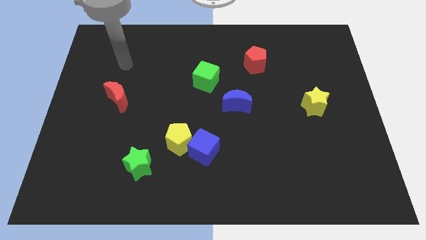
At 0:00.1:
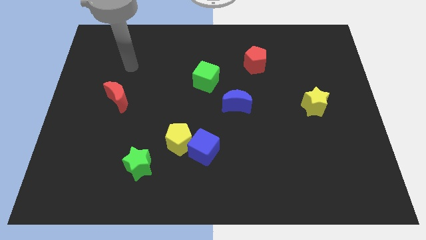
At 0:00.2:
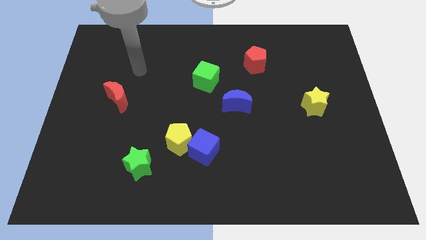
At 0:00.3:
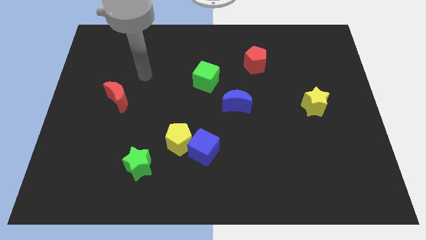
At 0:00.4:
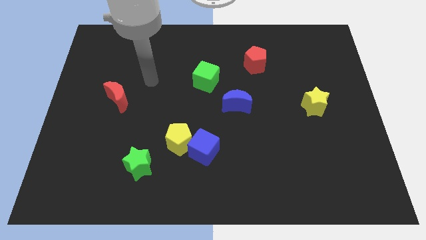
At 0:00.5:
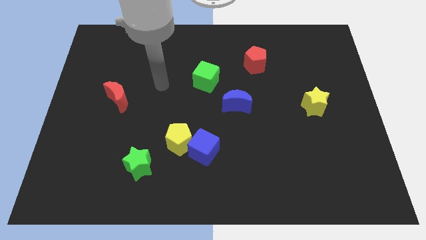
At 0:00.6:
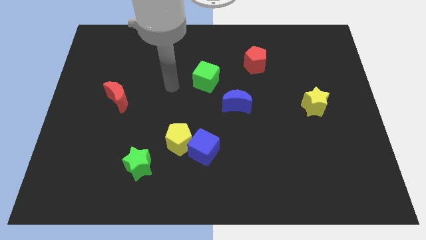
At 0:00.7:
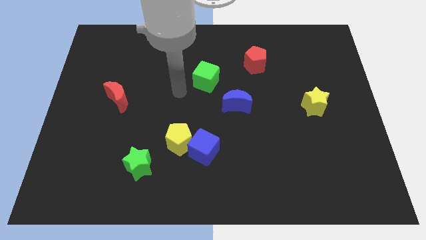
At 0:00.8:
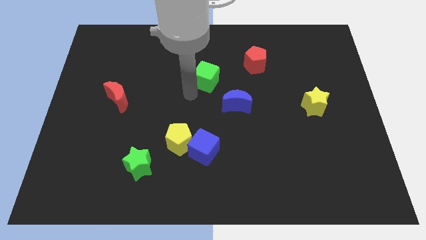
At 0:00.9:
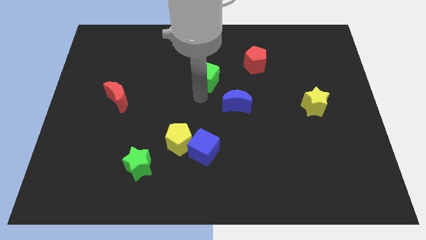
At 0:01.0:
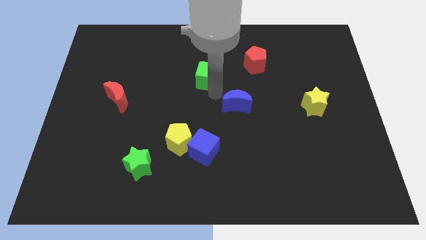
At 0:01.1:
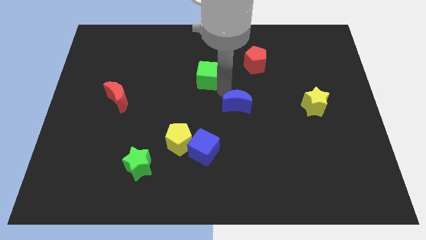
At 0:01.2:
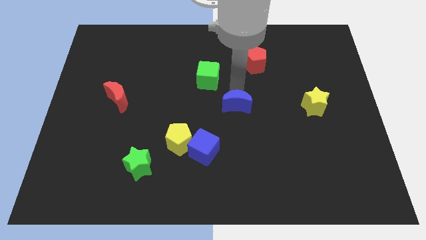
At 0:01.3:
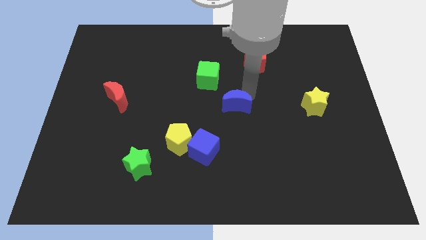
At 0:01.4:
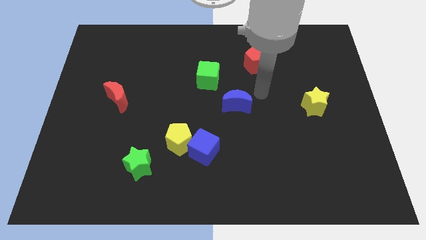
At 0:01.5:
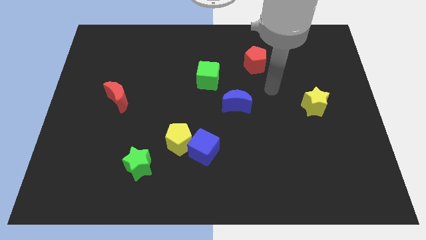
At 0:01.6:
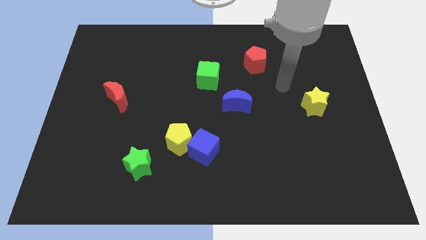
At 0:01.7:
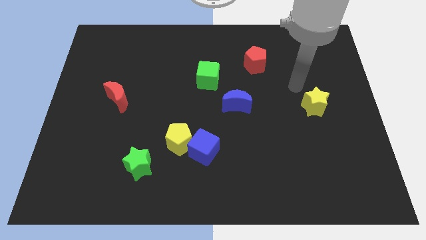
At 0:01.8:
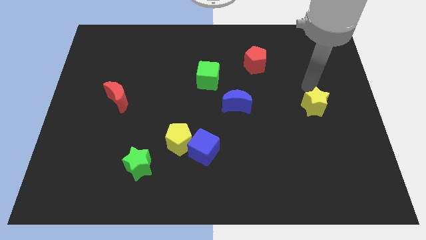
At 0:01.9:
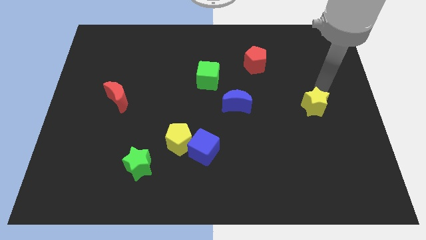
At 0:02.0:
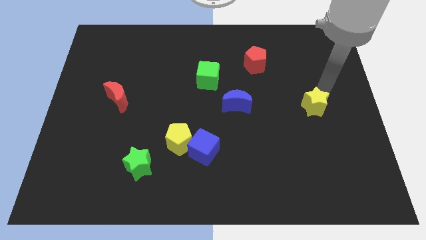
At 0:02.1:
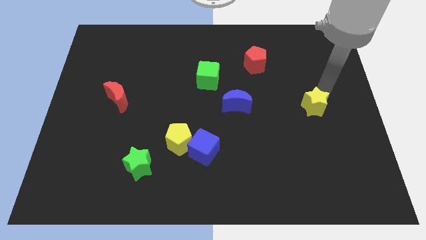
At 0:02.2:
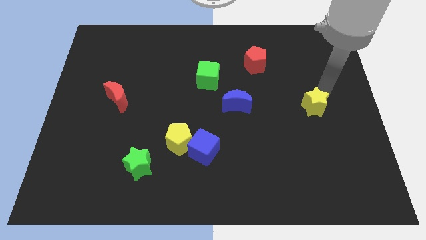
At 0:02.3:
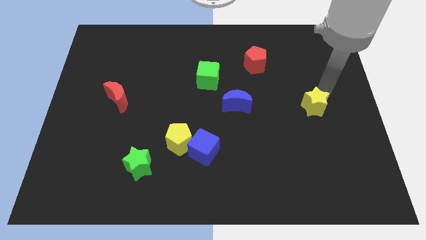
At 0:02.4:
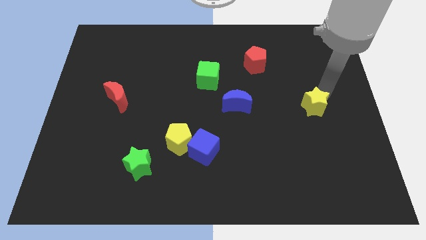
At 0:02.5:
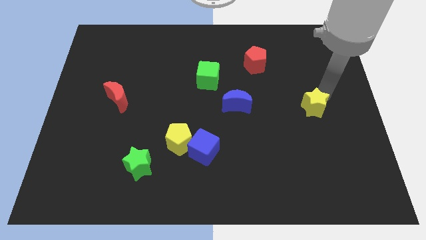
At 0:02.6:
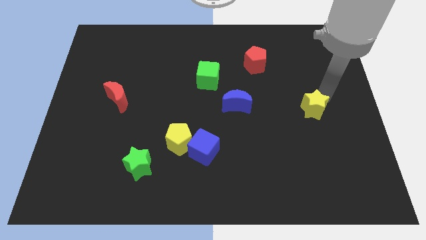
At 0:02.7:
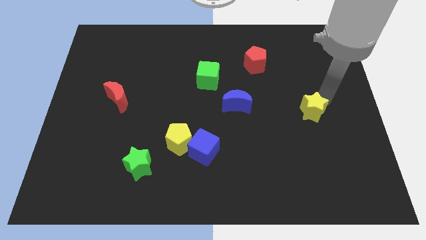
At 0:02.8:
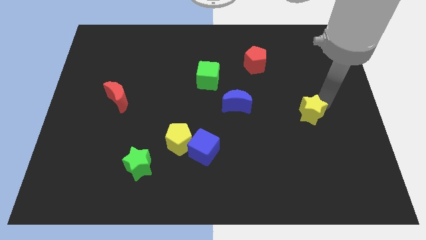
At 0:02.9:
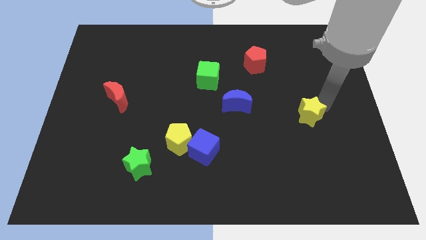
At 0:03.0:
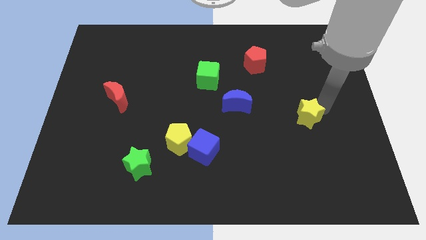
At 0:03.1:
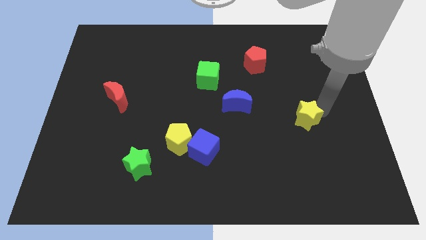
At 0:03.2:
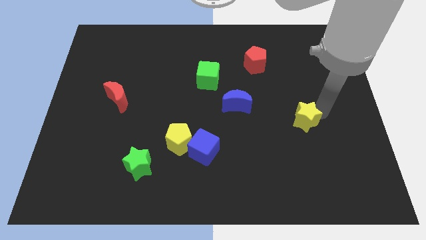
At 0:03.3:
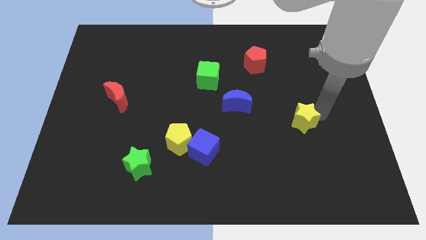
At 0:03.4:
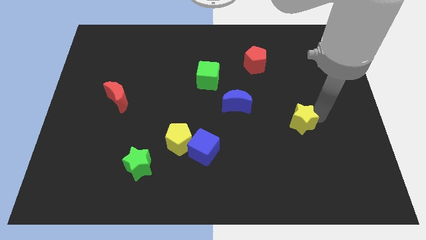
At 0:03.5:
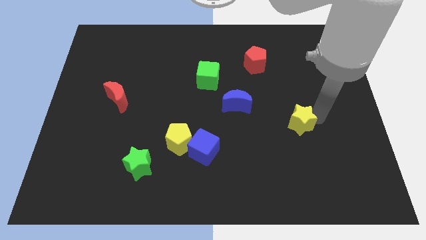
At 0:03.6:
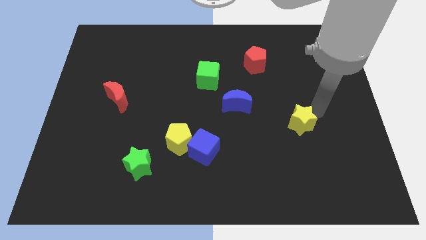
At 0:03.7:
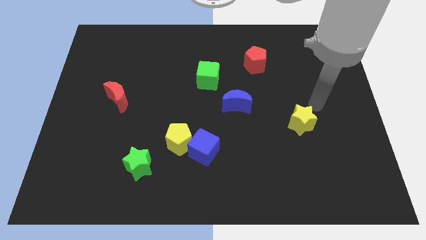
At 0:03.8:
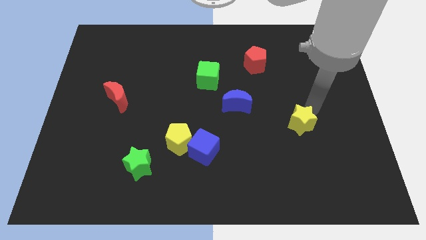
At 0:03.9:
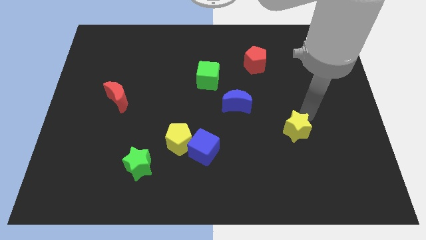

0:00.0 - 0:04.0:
push the yellow star somewhat downwards and then left

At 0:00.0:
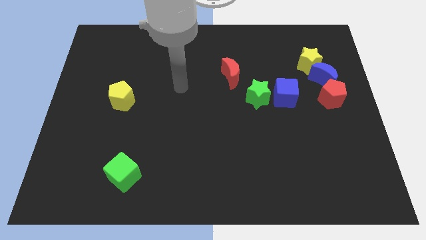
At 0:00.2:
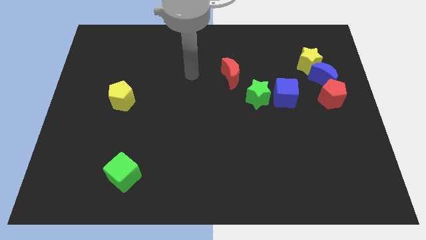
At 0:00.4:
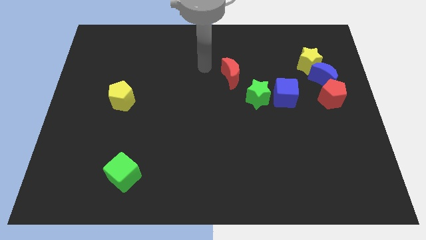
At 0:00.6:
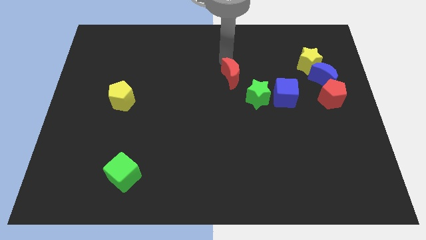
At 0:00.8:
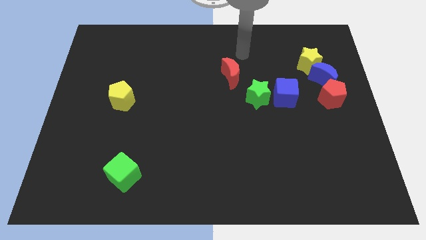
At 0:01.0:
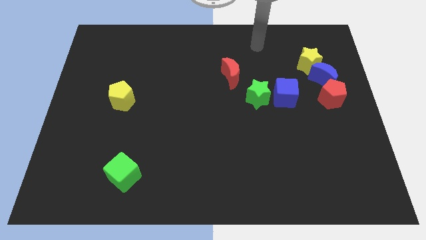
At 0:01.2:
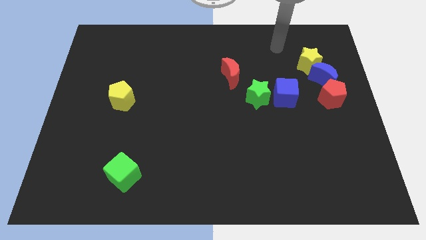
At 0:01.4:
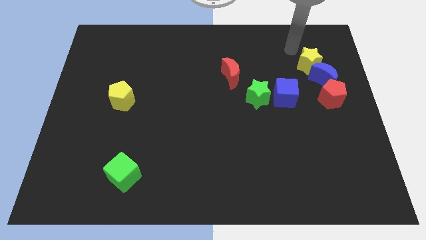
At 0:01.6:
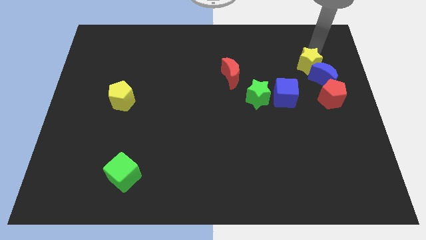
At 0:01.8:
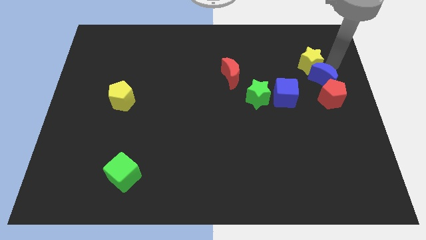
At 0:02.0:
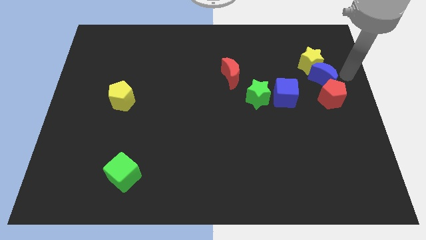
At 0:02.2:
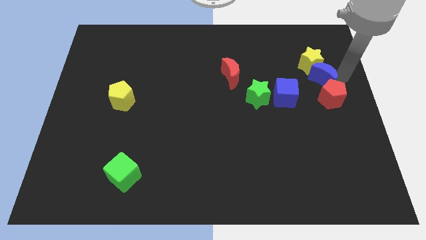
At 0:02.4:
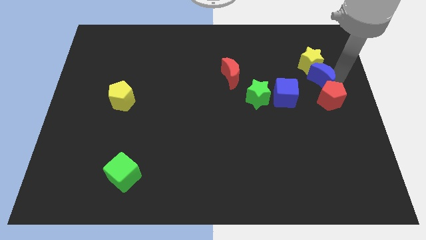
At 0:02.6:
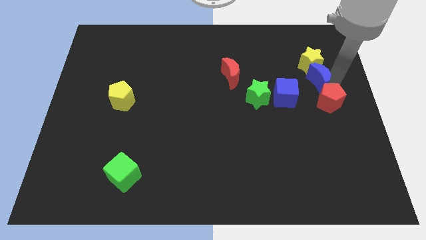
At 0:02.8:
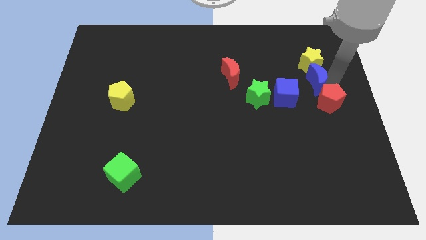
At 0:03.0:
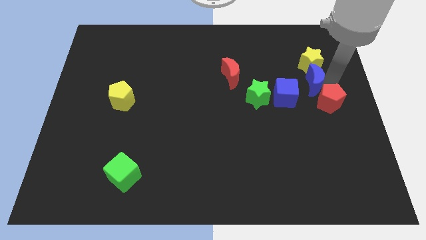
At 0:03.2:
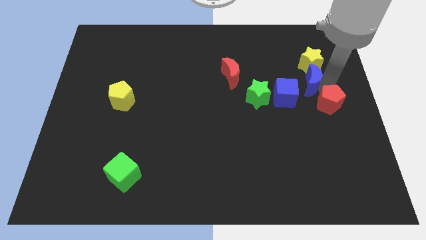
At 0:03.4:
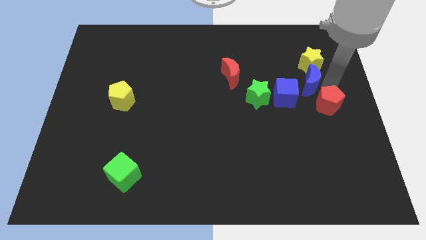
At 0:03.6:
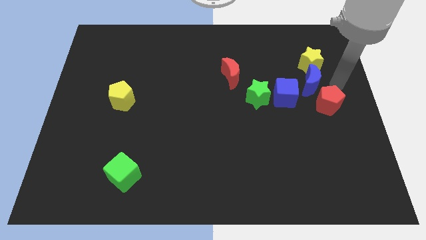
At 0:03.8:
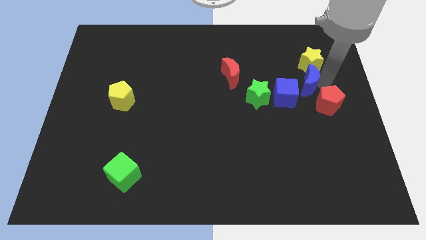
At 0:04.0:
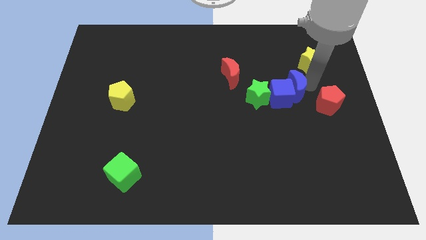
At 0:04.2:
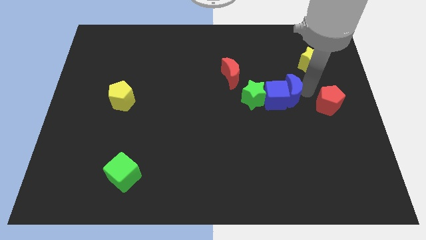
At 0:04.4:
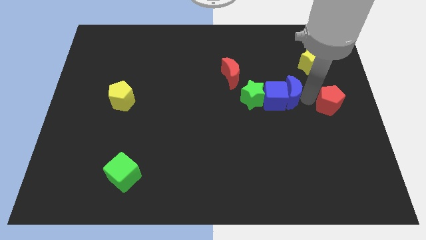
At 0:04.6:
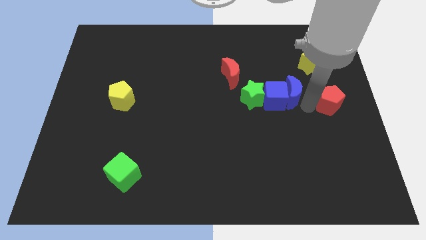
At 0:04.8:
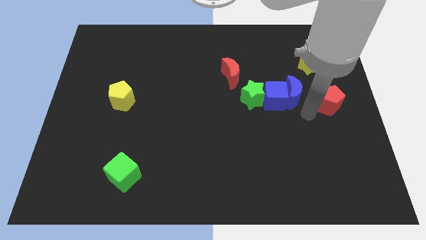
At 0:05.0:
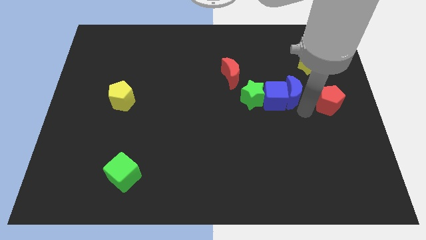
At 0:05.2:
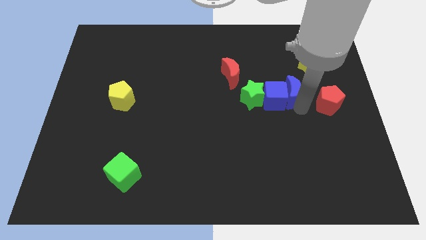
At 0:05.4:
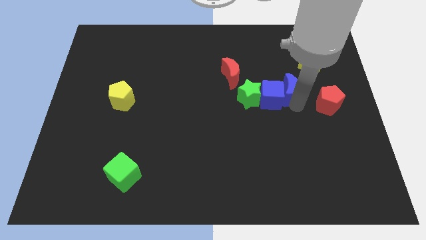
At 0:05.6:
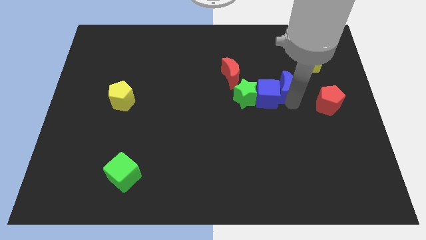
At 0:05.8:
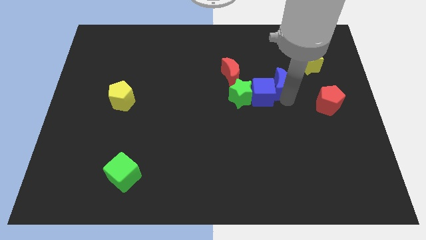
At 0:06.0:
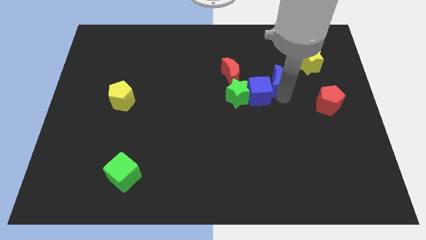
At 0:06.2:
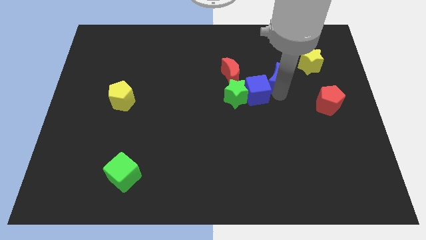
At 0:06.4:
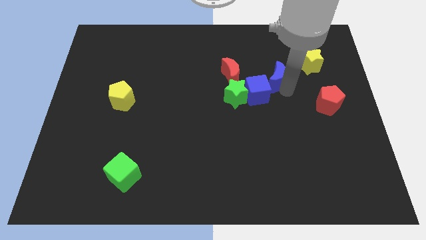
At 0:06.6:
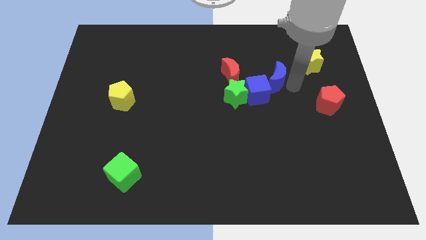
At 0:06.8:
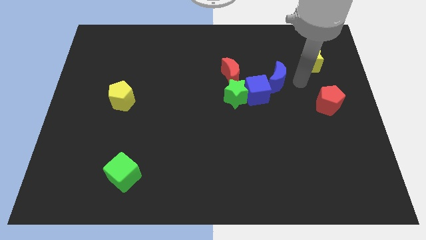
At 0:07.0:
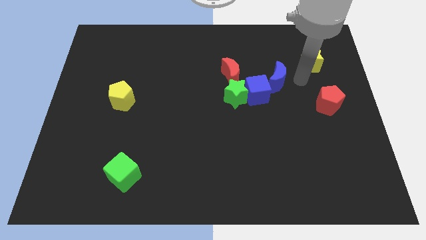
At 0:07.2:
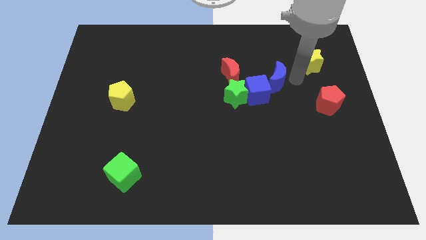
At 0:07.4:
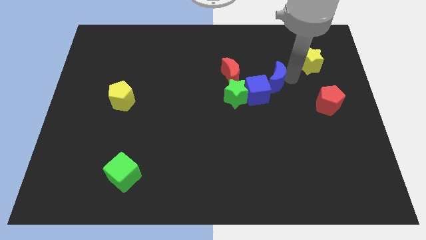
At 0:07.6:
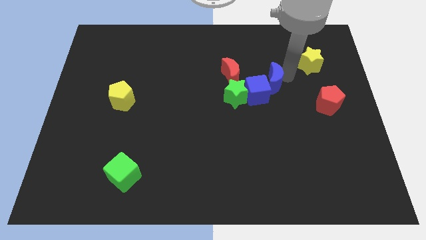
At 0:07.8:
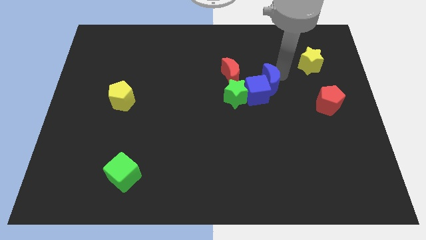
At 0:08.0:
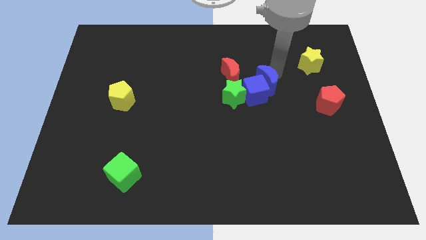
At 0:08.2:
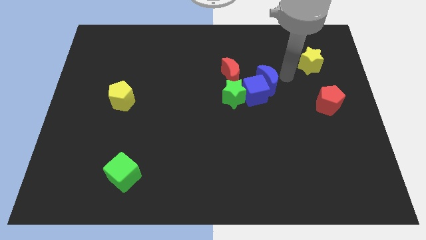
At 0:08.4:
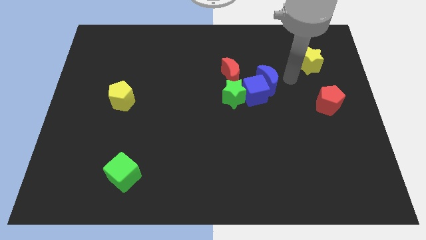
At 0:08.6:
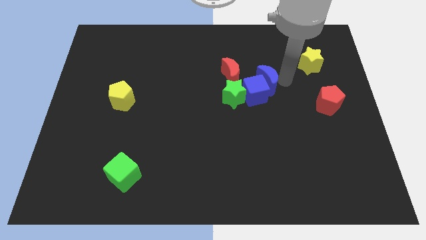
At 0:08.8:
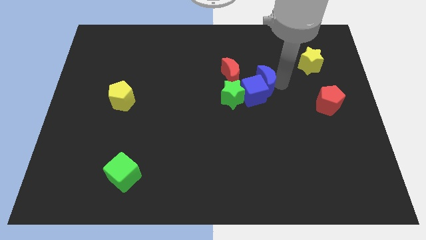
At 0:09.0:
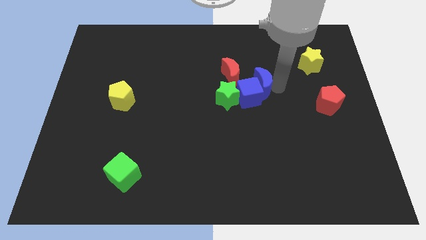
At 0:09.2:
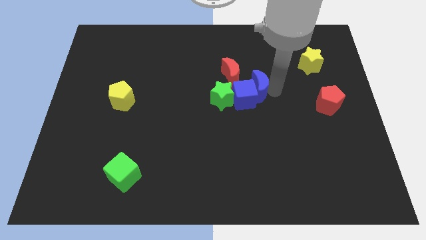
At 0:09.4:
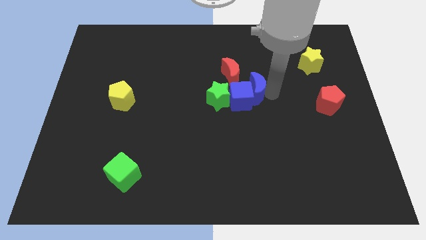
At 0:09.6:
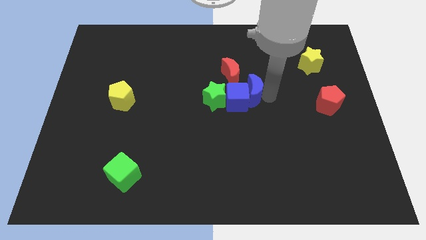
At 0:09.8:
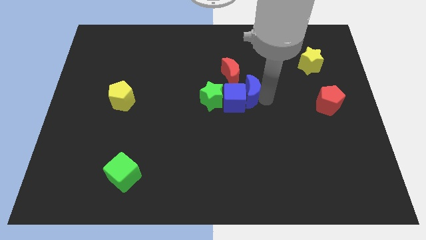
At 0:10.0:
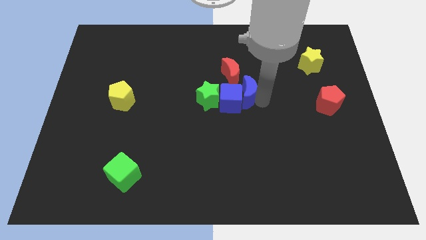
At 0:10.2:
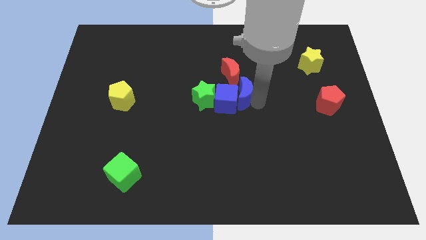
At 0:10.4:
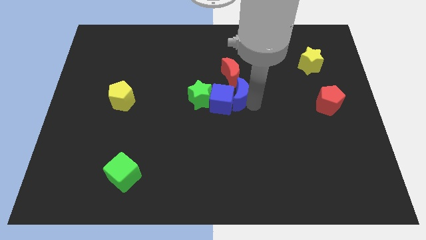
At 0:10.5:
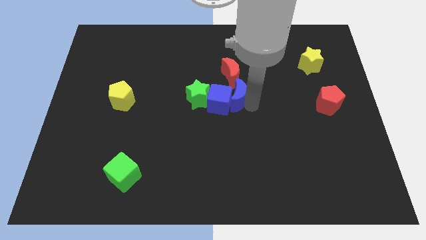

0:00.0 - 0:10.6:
push the blue moon left
